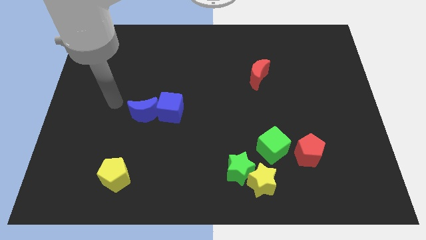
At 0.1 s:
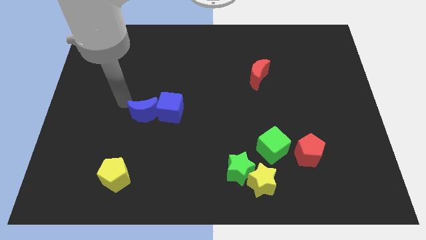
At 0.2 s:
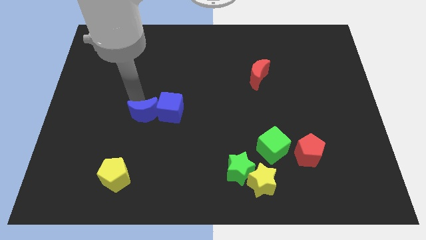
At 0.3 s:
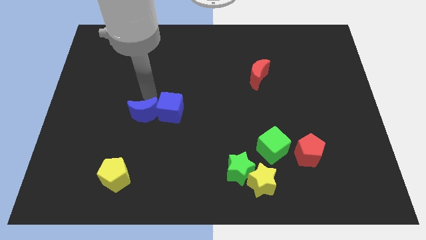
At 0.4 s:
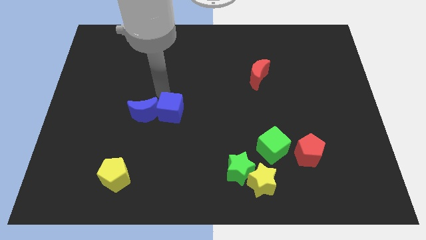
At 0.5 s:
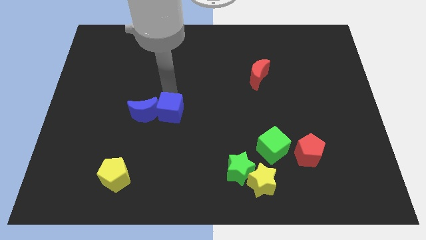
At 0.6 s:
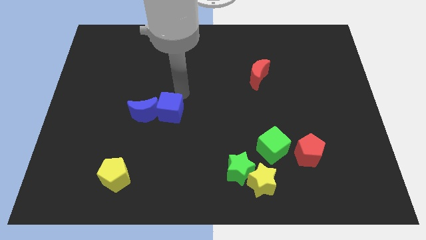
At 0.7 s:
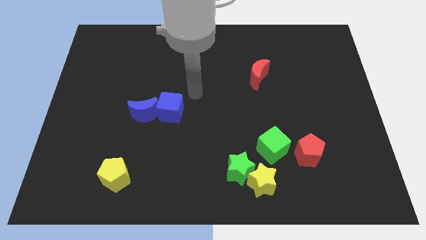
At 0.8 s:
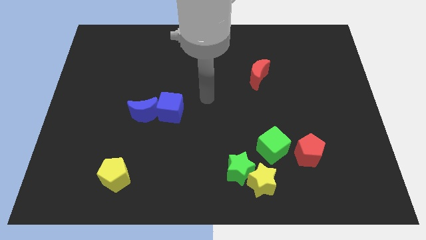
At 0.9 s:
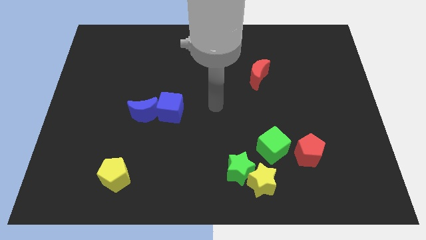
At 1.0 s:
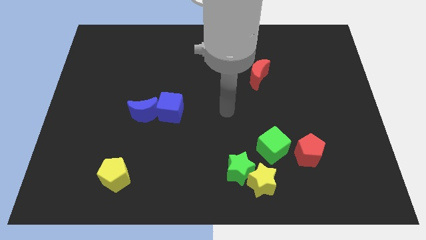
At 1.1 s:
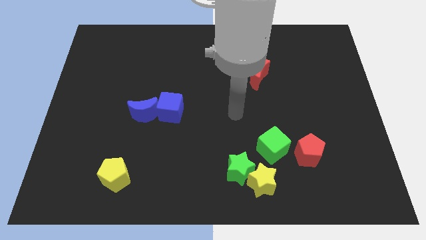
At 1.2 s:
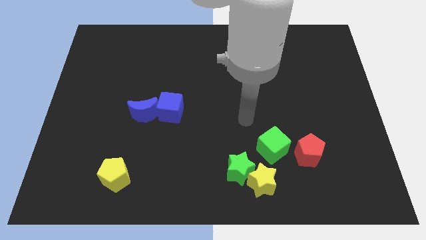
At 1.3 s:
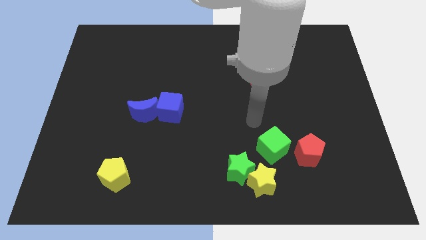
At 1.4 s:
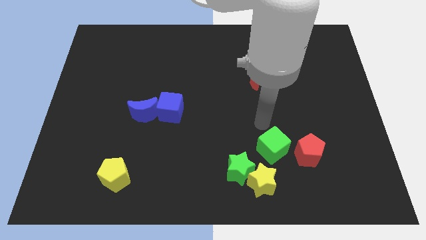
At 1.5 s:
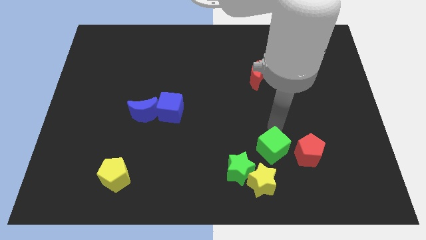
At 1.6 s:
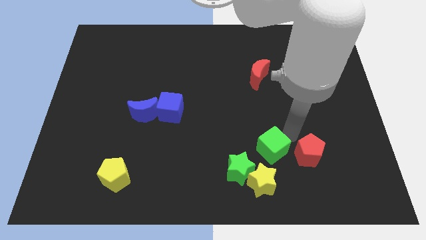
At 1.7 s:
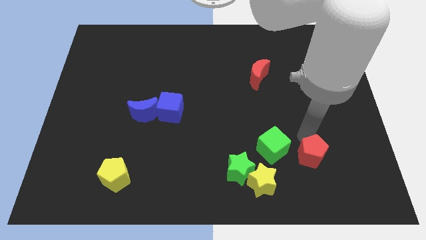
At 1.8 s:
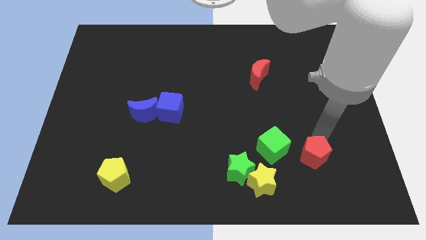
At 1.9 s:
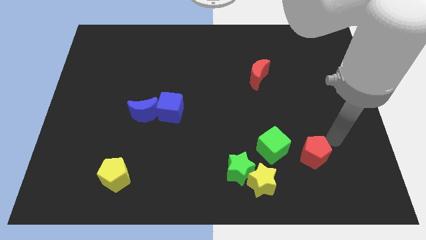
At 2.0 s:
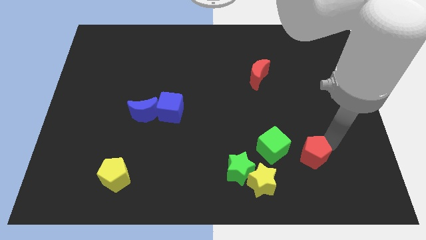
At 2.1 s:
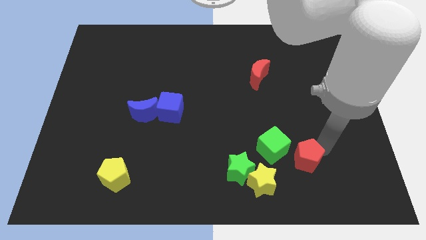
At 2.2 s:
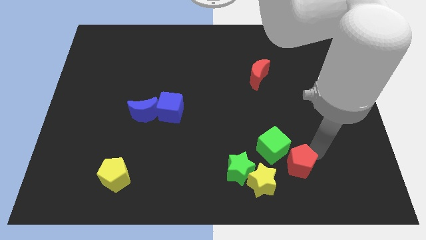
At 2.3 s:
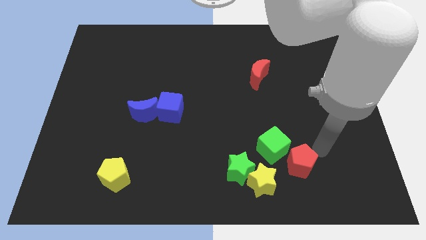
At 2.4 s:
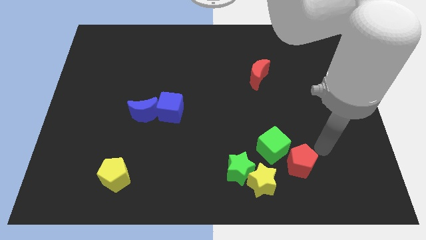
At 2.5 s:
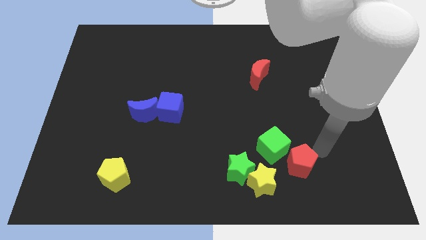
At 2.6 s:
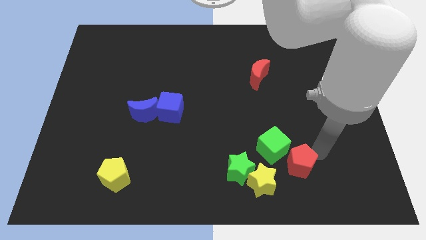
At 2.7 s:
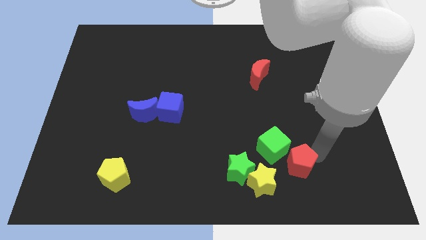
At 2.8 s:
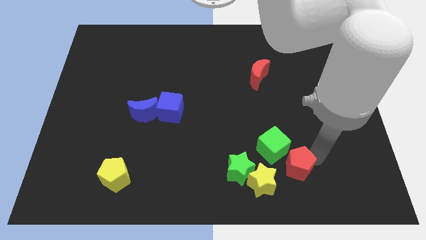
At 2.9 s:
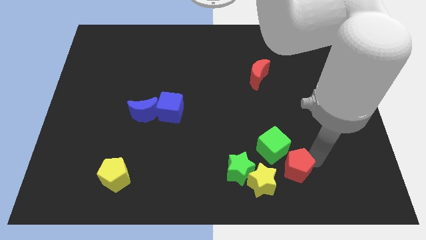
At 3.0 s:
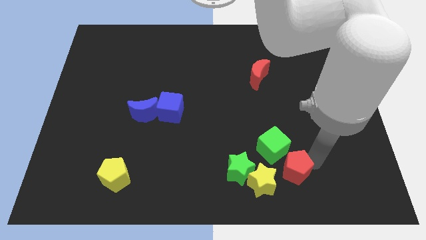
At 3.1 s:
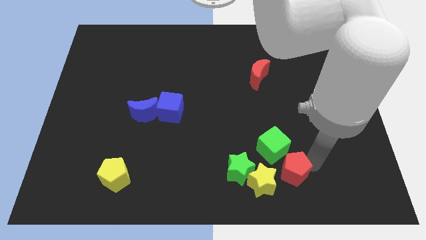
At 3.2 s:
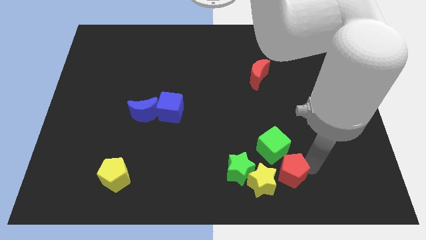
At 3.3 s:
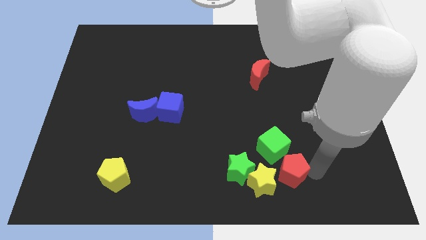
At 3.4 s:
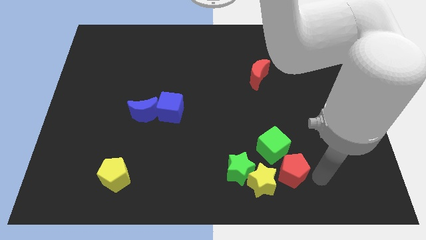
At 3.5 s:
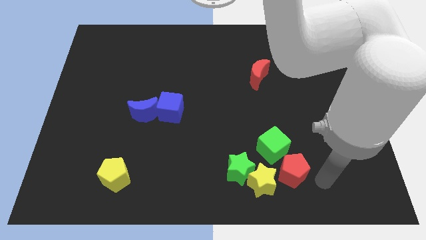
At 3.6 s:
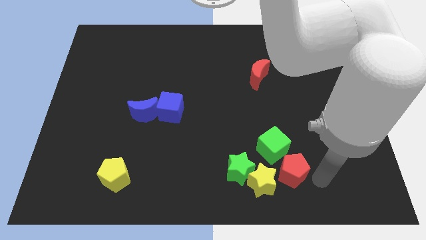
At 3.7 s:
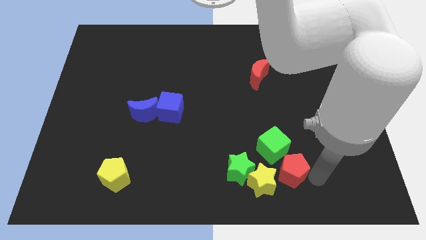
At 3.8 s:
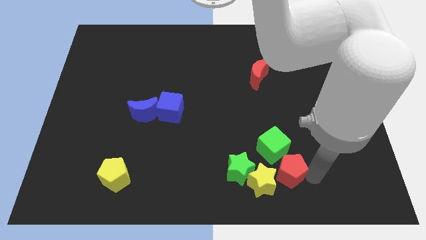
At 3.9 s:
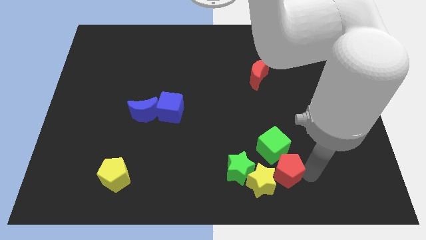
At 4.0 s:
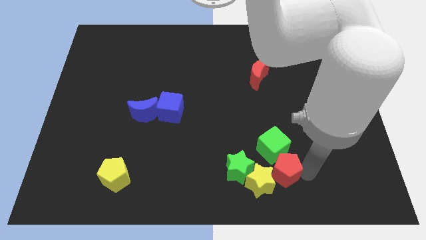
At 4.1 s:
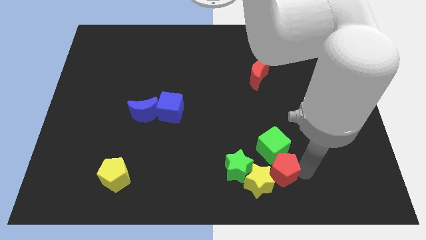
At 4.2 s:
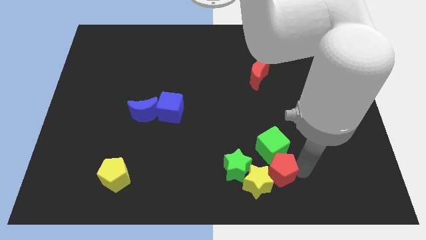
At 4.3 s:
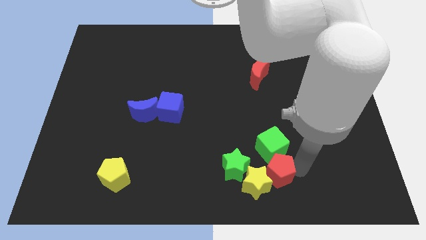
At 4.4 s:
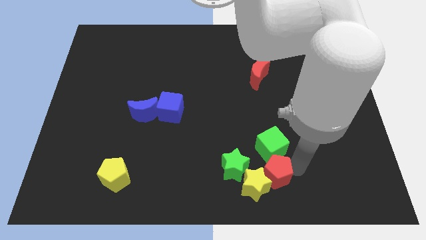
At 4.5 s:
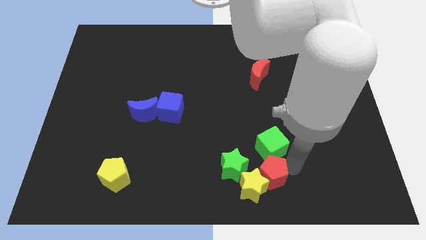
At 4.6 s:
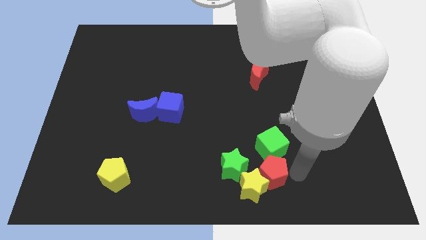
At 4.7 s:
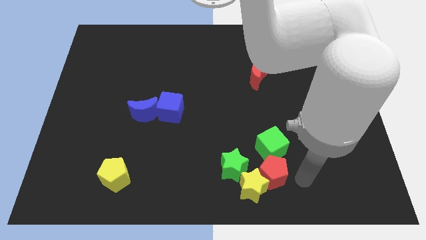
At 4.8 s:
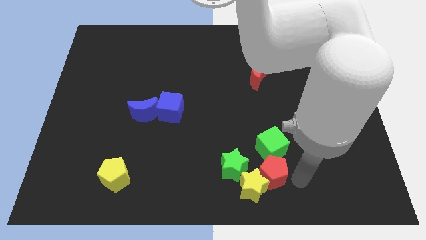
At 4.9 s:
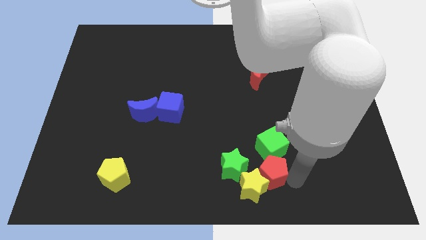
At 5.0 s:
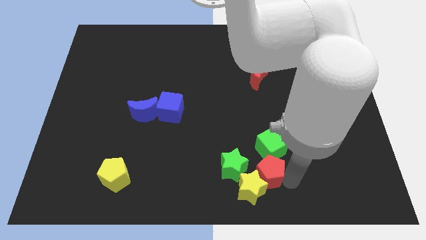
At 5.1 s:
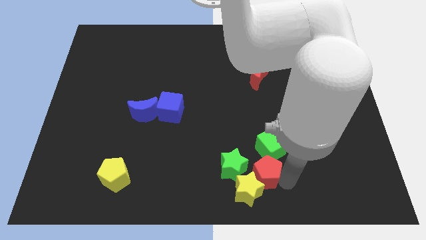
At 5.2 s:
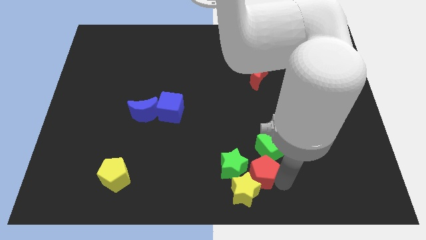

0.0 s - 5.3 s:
slide the red pentagon to the green star

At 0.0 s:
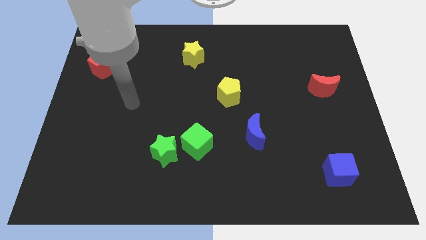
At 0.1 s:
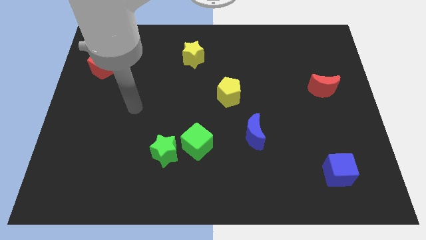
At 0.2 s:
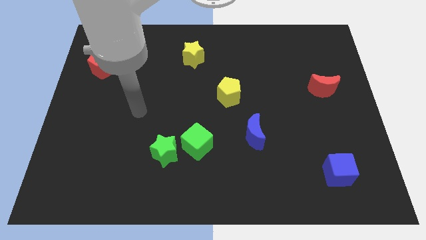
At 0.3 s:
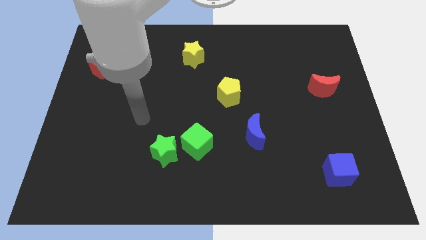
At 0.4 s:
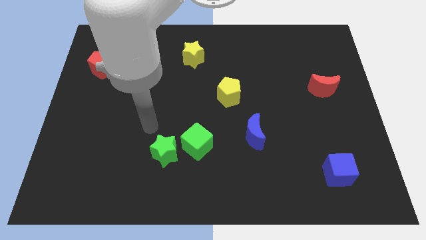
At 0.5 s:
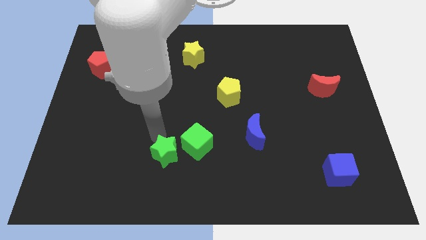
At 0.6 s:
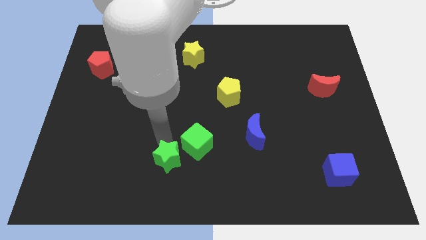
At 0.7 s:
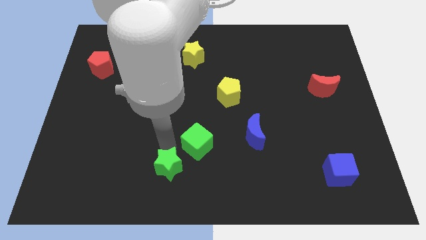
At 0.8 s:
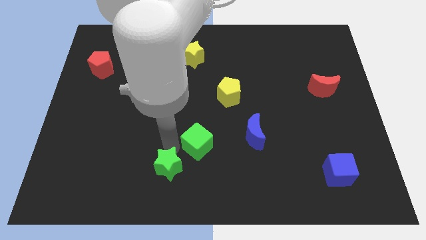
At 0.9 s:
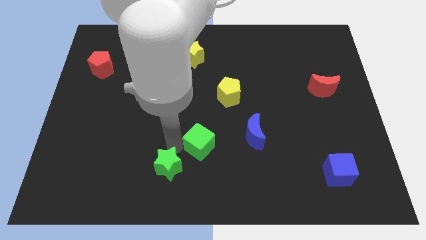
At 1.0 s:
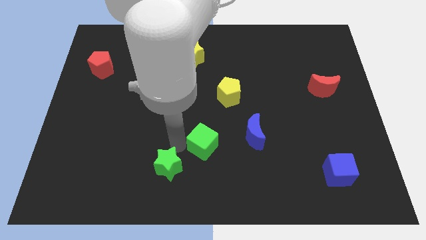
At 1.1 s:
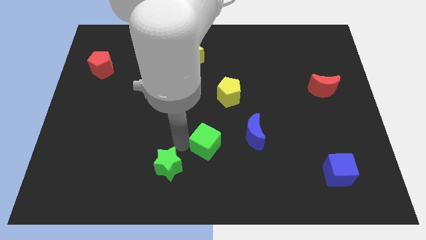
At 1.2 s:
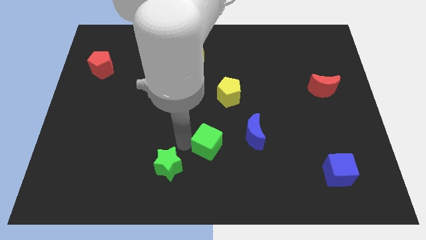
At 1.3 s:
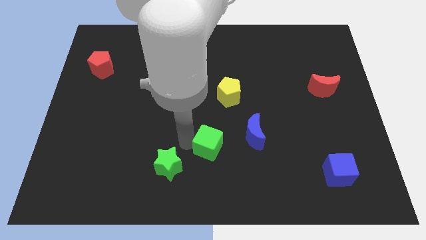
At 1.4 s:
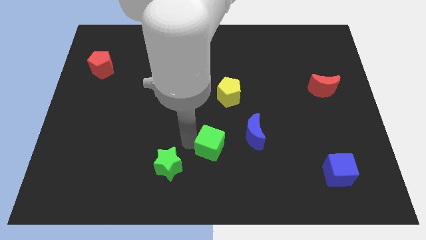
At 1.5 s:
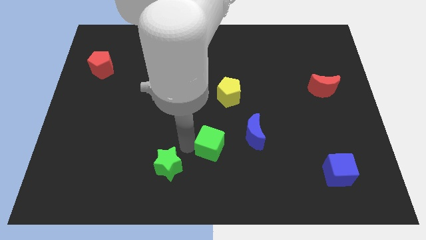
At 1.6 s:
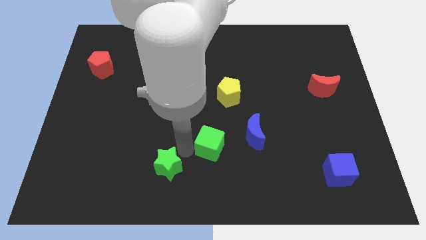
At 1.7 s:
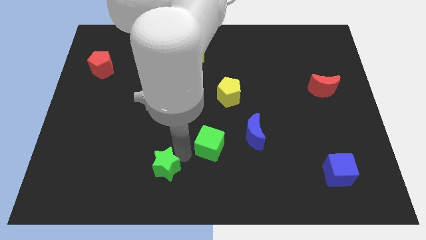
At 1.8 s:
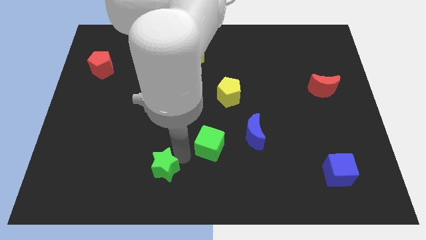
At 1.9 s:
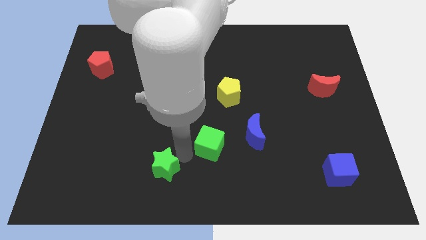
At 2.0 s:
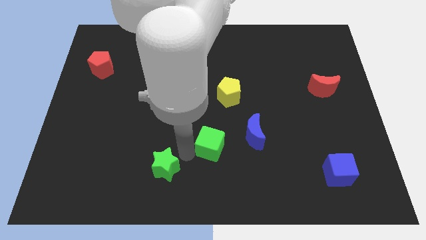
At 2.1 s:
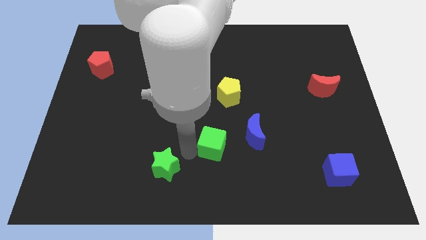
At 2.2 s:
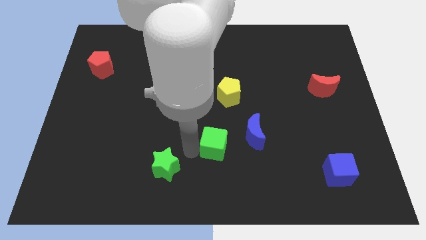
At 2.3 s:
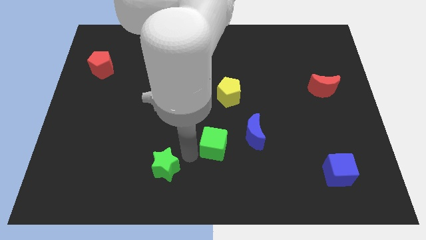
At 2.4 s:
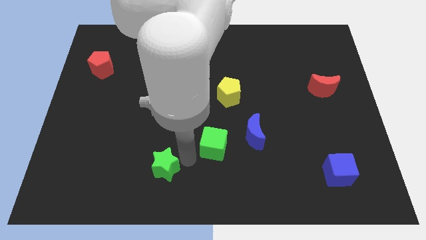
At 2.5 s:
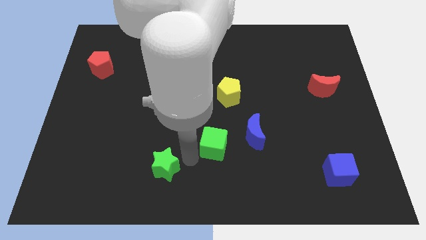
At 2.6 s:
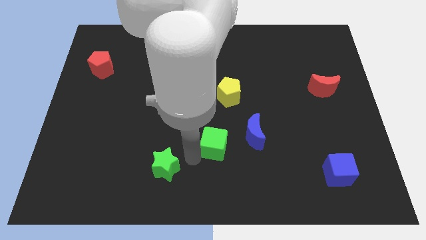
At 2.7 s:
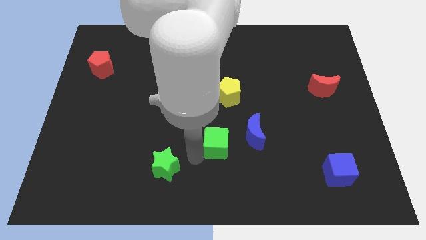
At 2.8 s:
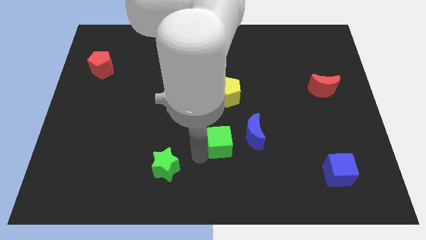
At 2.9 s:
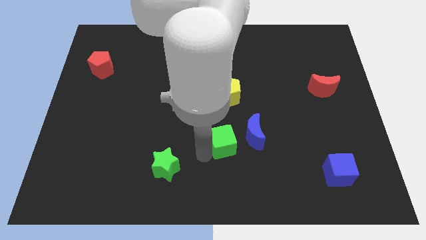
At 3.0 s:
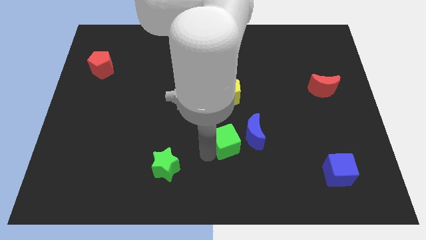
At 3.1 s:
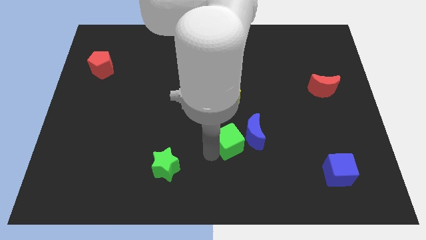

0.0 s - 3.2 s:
slide the green cube towards the blue moon
